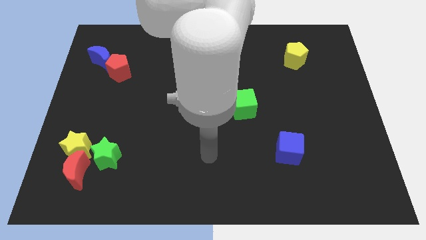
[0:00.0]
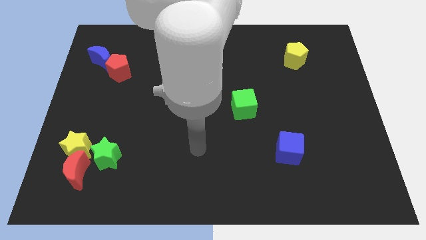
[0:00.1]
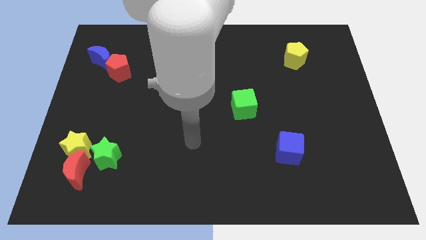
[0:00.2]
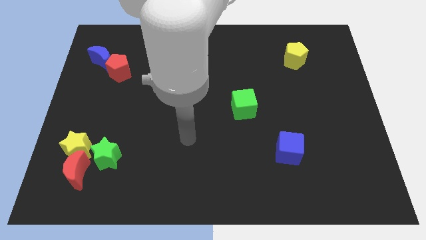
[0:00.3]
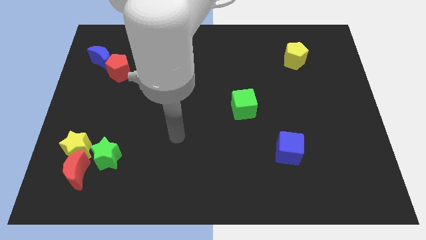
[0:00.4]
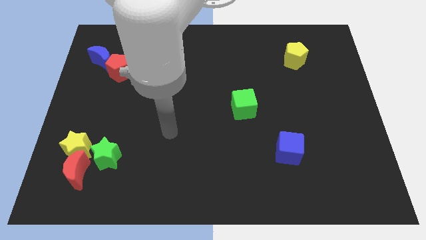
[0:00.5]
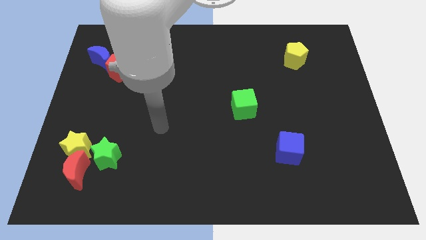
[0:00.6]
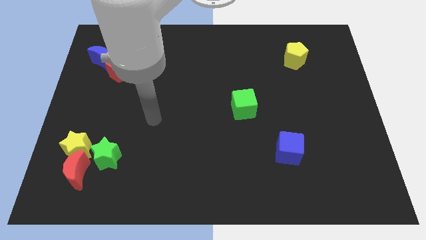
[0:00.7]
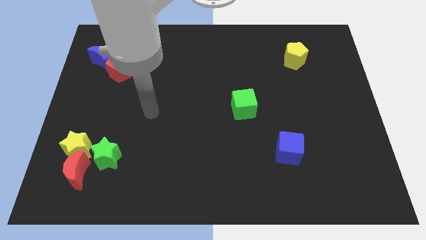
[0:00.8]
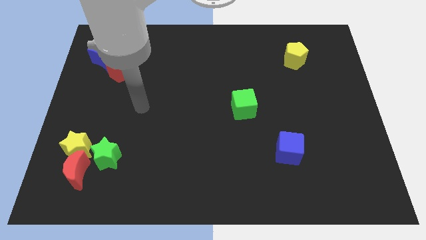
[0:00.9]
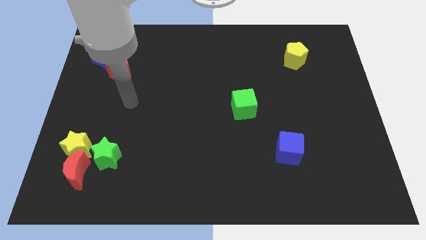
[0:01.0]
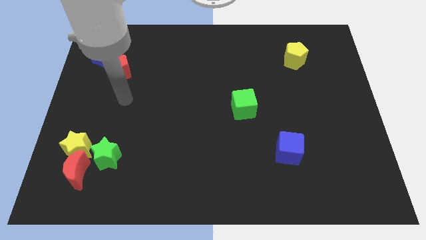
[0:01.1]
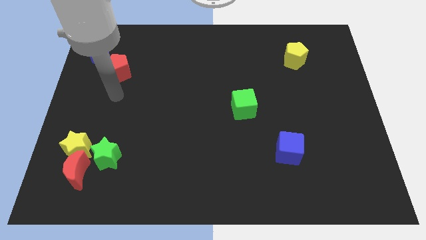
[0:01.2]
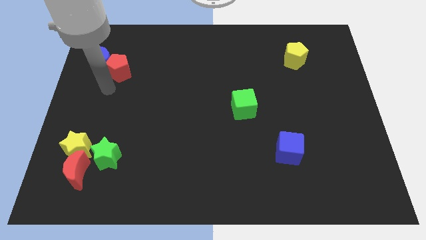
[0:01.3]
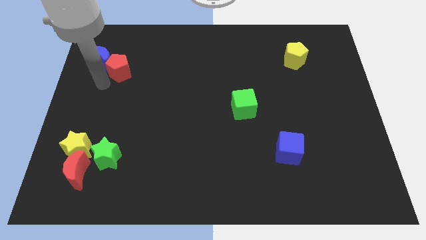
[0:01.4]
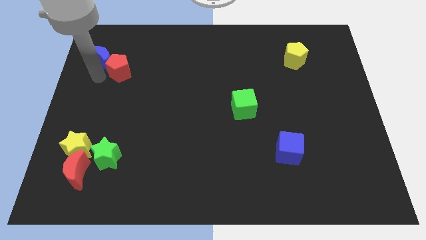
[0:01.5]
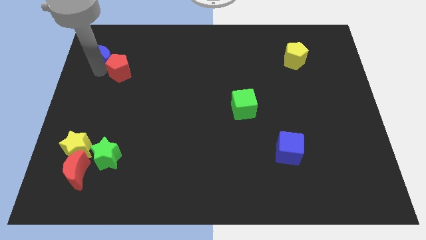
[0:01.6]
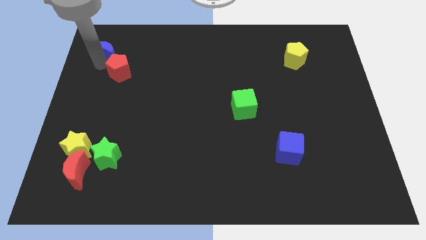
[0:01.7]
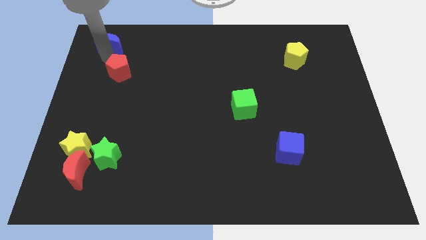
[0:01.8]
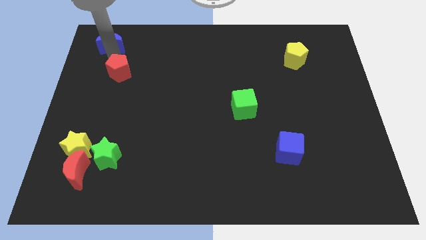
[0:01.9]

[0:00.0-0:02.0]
pull the red pentagon apart from the blue moon

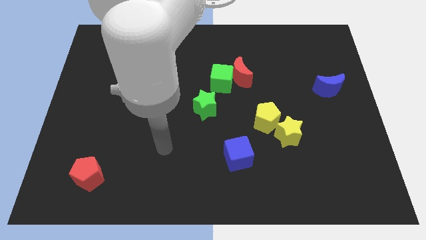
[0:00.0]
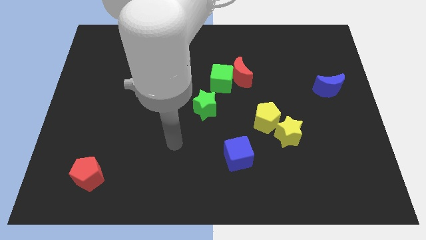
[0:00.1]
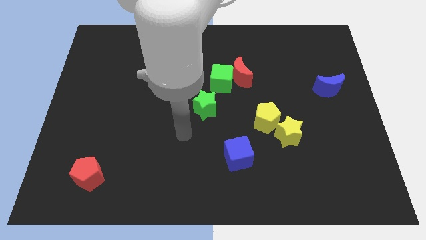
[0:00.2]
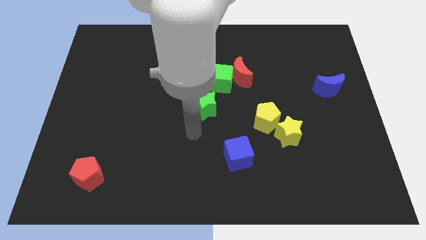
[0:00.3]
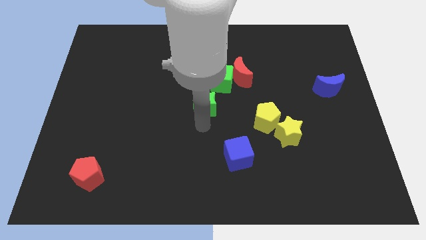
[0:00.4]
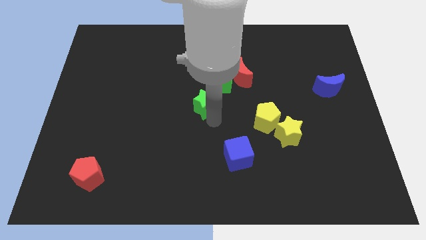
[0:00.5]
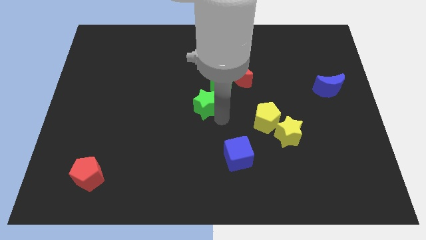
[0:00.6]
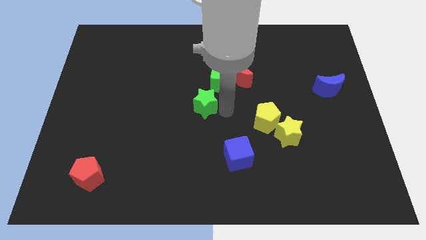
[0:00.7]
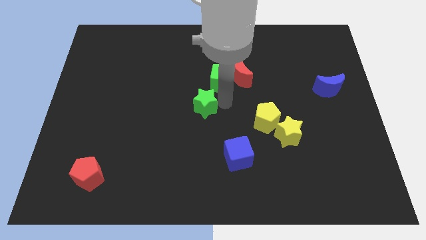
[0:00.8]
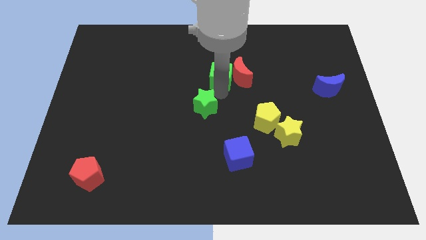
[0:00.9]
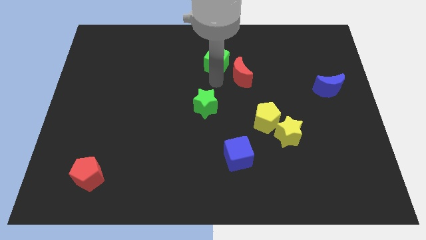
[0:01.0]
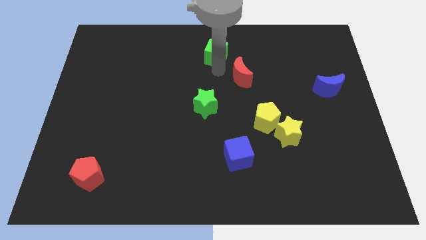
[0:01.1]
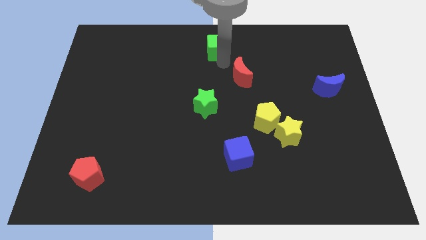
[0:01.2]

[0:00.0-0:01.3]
move the red moon away from the green cube

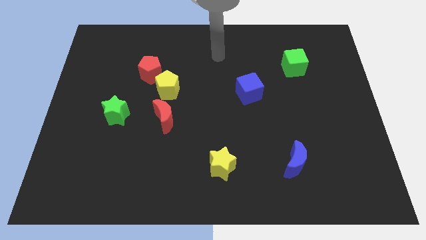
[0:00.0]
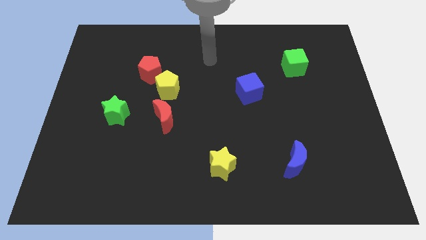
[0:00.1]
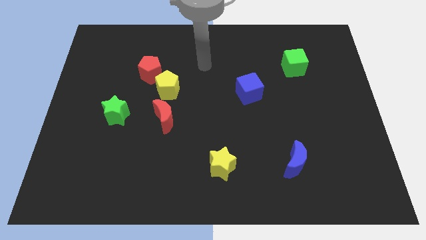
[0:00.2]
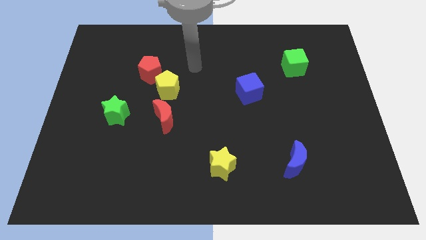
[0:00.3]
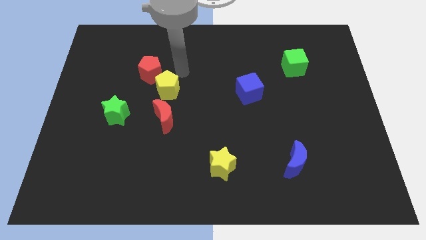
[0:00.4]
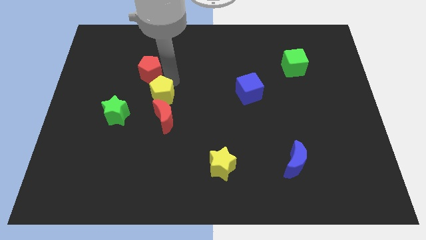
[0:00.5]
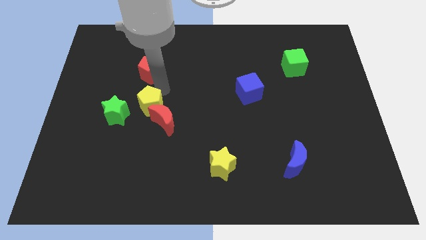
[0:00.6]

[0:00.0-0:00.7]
separate the red pentagon from the yellow pentagon

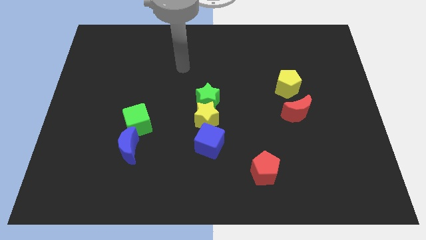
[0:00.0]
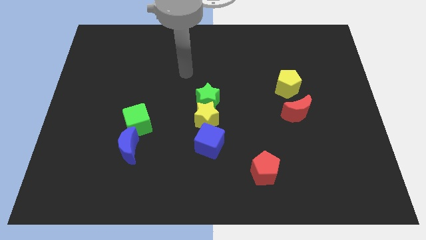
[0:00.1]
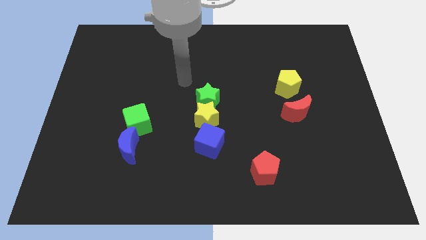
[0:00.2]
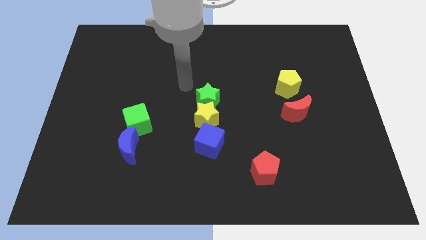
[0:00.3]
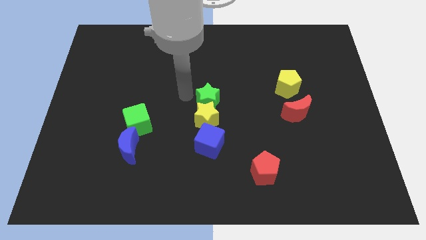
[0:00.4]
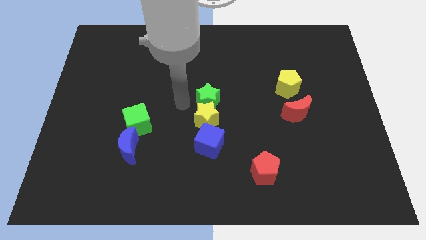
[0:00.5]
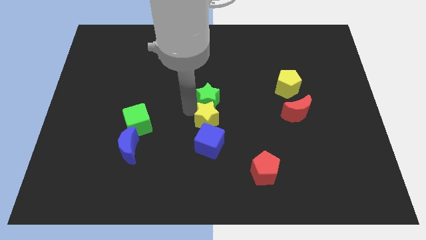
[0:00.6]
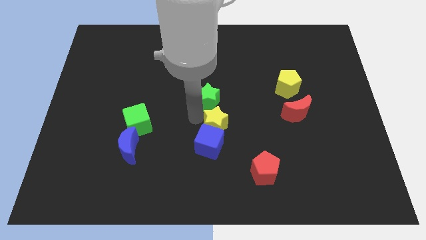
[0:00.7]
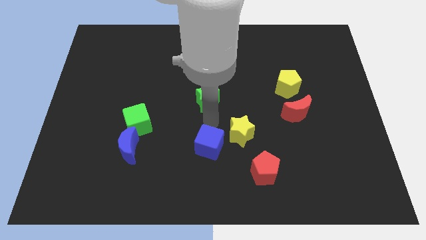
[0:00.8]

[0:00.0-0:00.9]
separate the green star from the yellow star

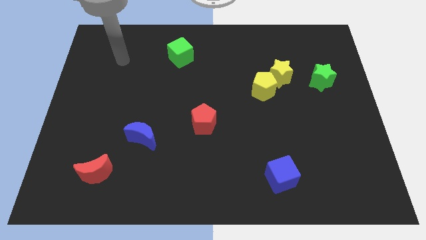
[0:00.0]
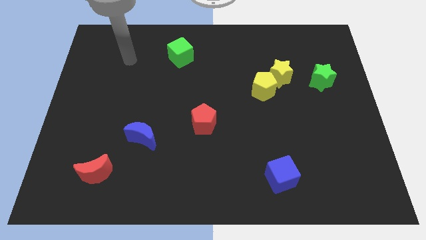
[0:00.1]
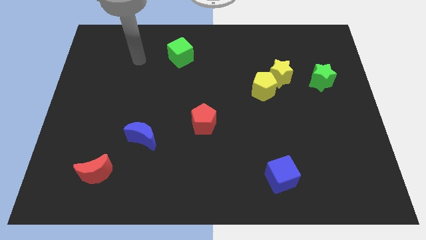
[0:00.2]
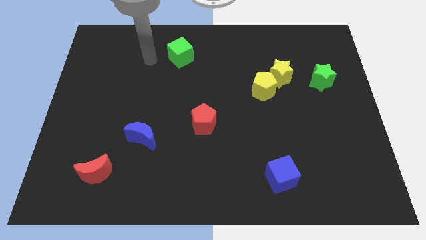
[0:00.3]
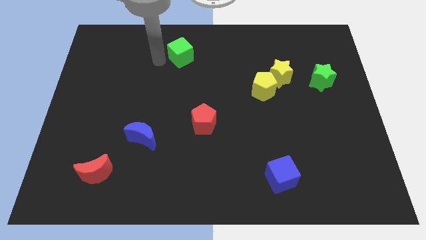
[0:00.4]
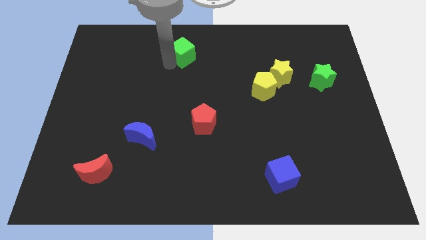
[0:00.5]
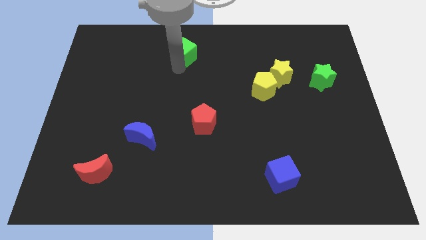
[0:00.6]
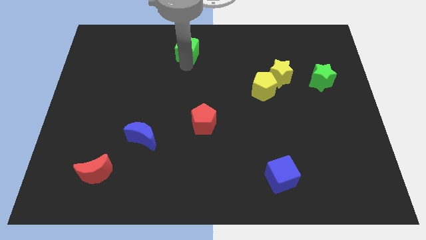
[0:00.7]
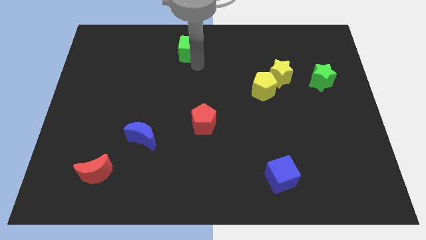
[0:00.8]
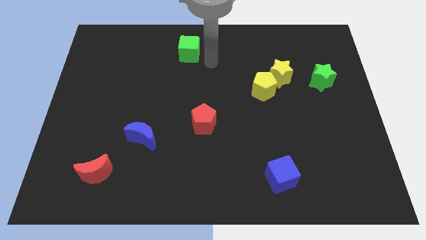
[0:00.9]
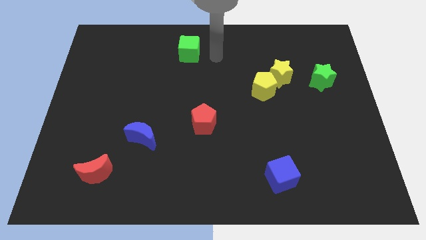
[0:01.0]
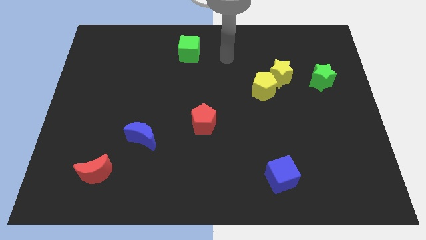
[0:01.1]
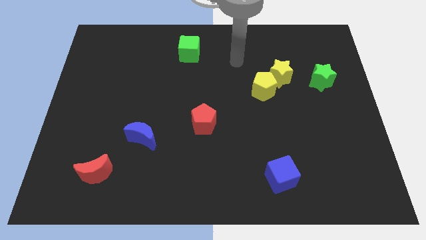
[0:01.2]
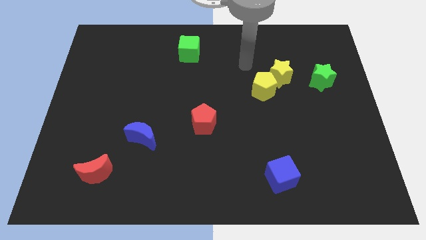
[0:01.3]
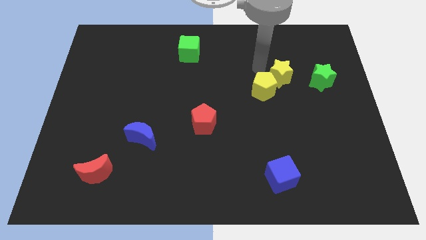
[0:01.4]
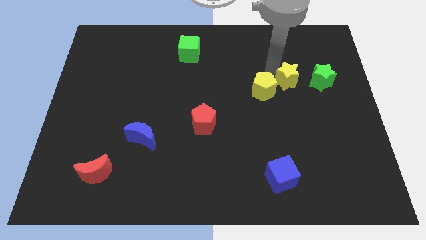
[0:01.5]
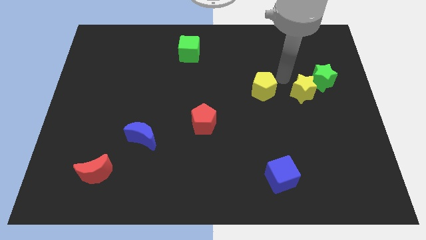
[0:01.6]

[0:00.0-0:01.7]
separate the yellow pentagon from the yellow star

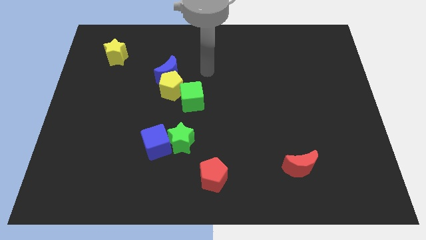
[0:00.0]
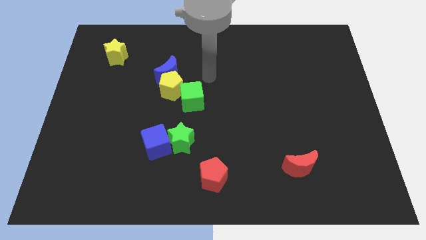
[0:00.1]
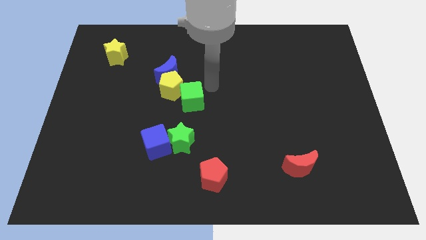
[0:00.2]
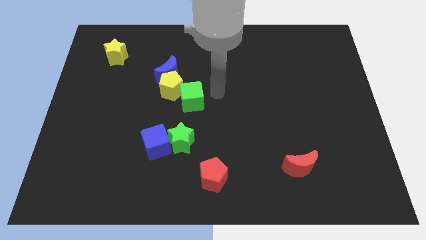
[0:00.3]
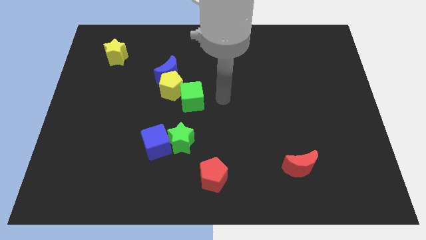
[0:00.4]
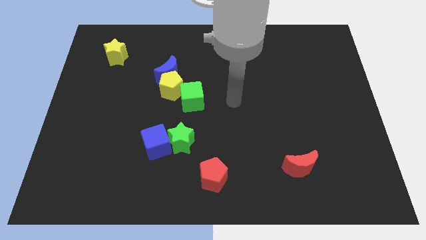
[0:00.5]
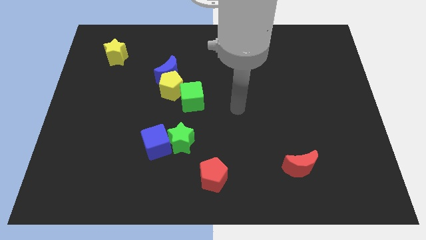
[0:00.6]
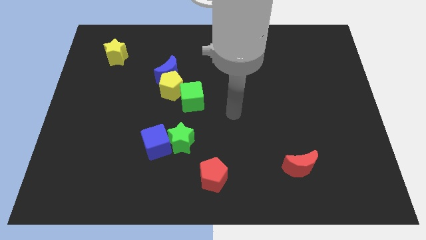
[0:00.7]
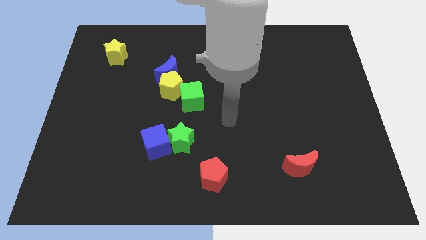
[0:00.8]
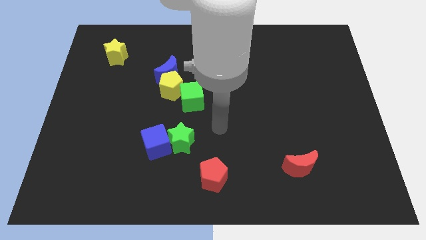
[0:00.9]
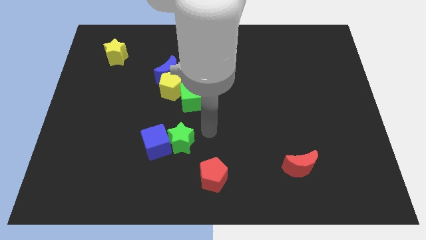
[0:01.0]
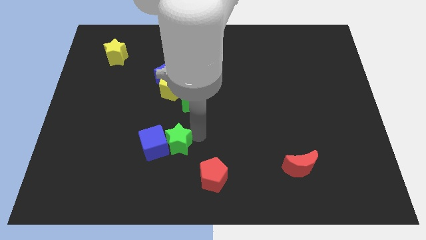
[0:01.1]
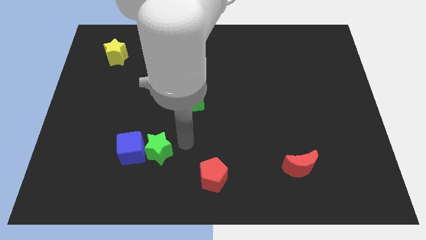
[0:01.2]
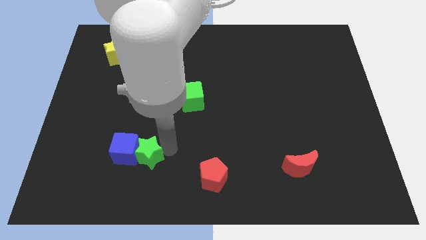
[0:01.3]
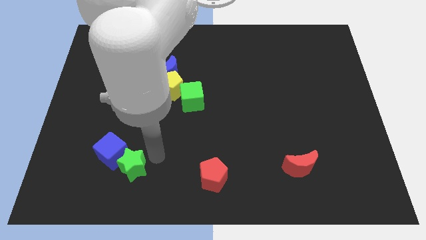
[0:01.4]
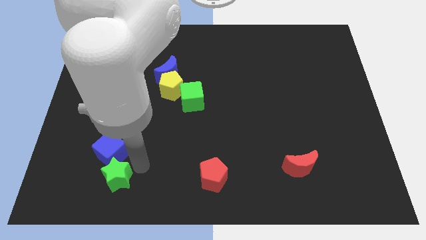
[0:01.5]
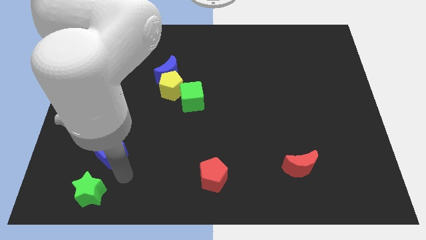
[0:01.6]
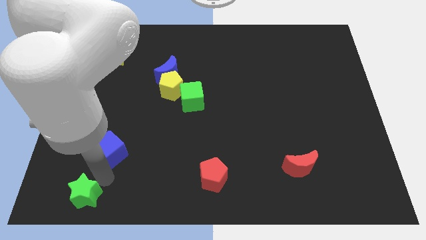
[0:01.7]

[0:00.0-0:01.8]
move the blue cube away from the green star

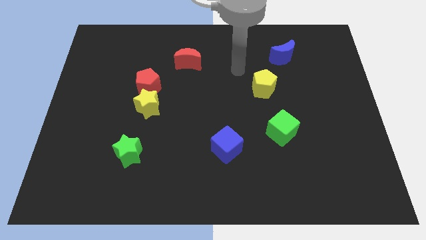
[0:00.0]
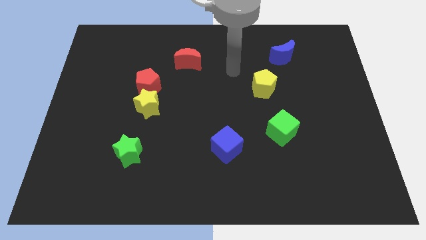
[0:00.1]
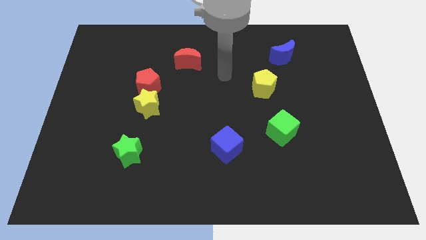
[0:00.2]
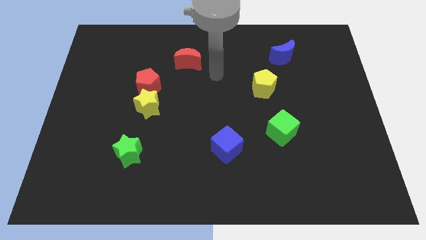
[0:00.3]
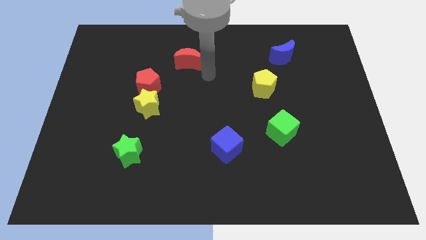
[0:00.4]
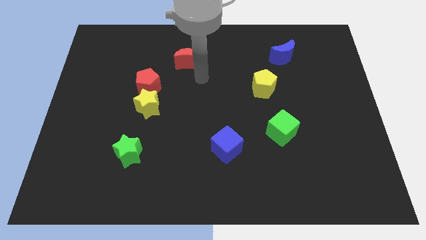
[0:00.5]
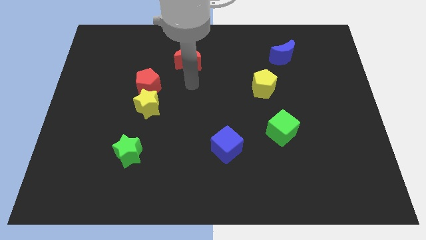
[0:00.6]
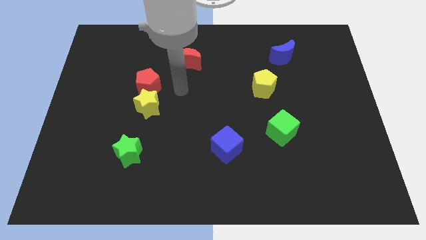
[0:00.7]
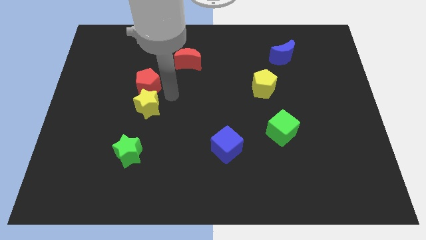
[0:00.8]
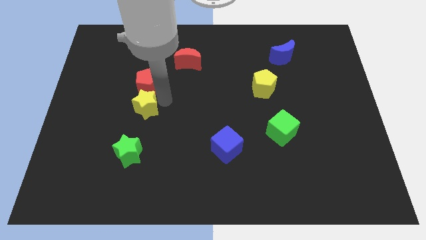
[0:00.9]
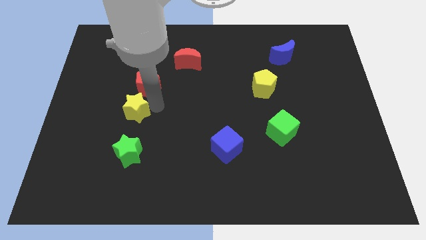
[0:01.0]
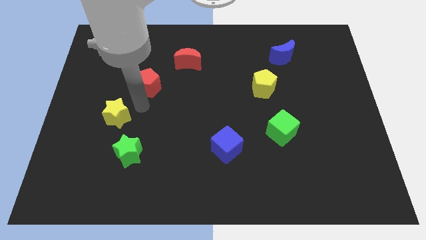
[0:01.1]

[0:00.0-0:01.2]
pull the red pentagon apart from the yellow star
